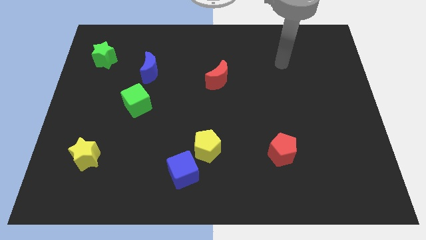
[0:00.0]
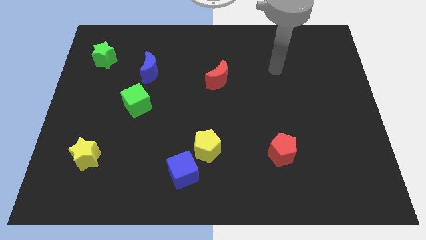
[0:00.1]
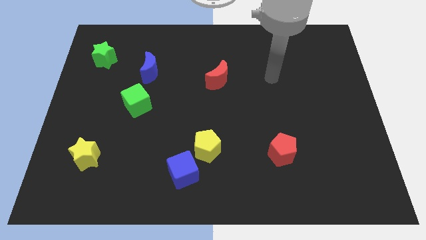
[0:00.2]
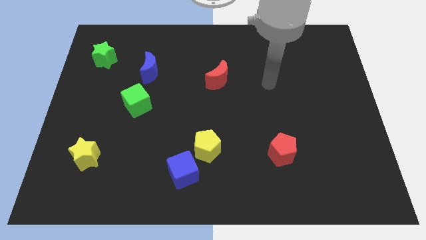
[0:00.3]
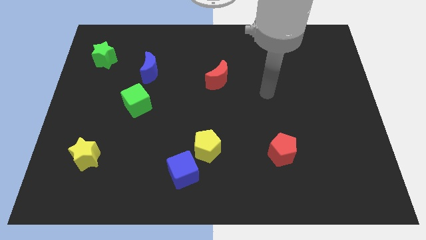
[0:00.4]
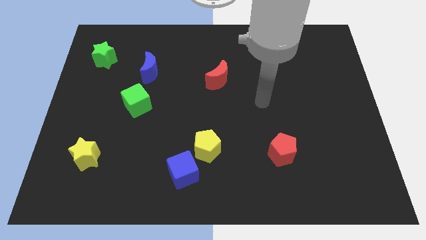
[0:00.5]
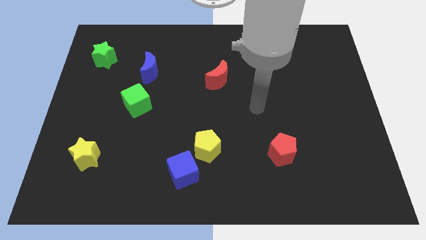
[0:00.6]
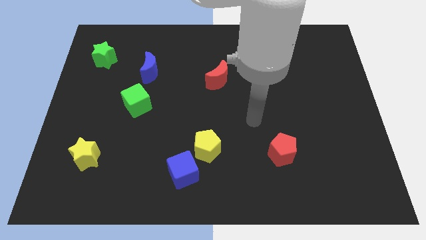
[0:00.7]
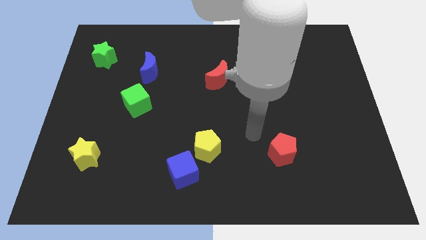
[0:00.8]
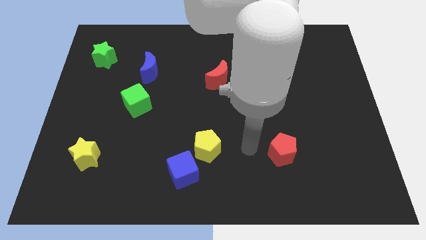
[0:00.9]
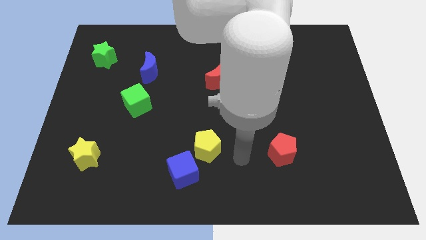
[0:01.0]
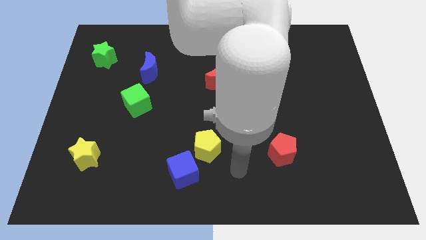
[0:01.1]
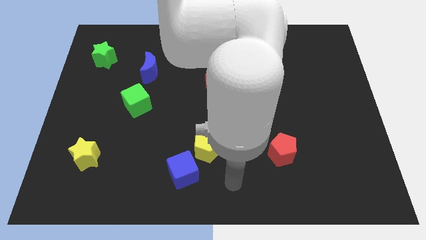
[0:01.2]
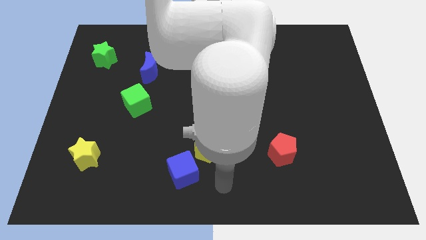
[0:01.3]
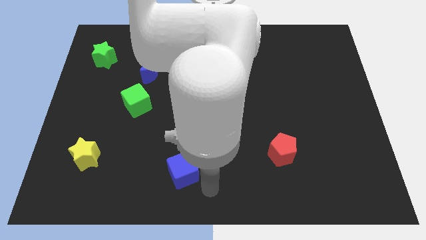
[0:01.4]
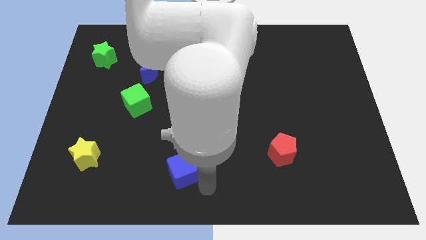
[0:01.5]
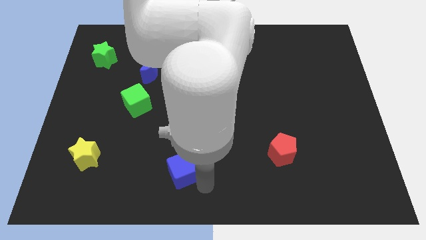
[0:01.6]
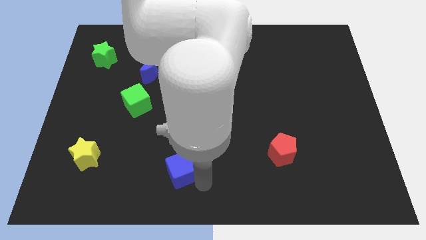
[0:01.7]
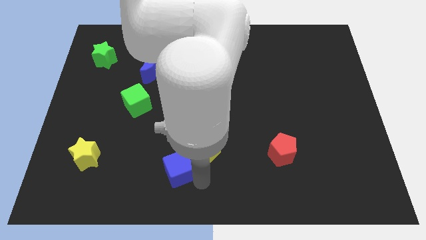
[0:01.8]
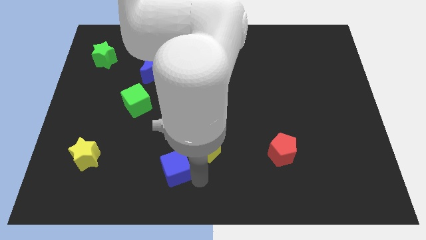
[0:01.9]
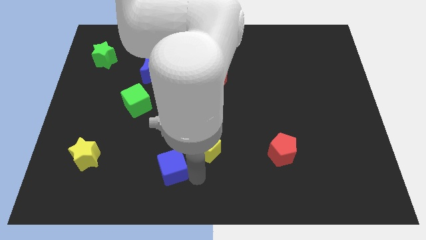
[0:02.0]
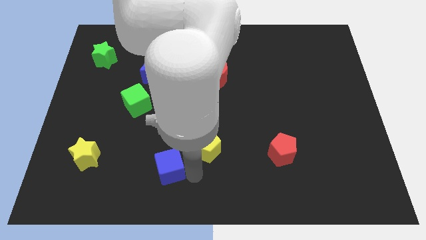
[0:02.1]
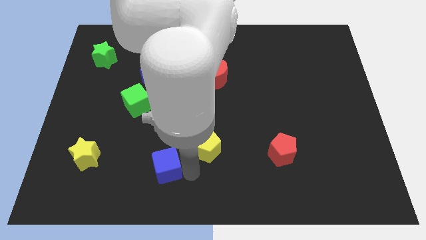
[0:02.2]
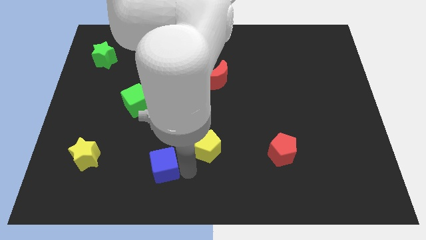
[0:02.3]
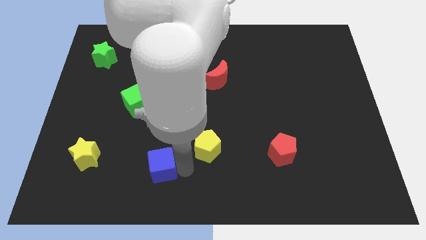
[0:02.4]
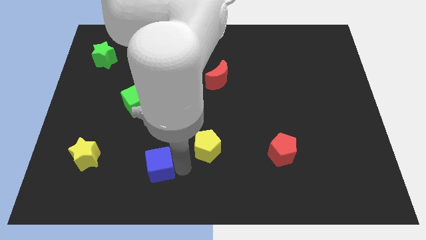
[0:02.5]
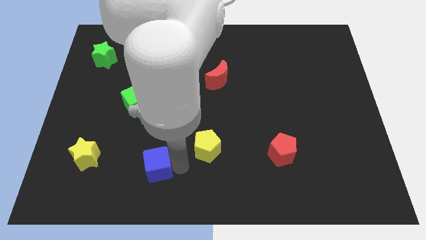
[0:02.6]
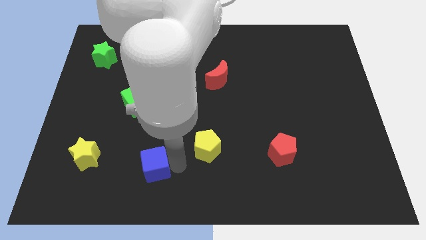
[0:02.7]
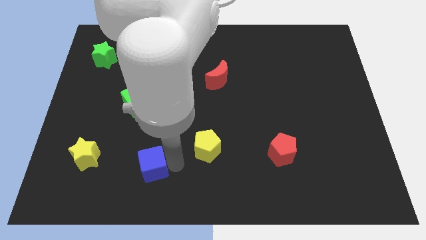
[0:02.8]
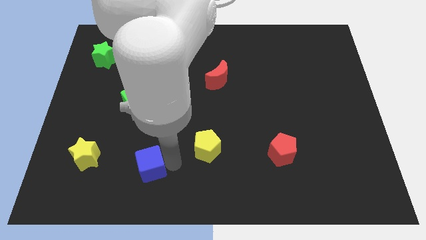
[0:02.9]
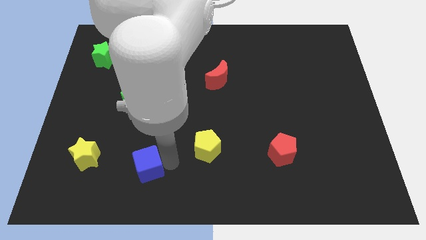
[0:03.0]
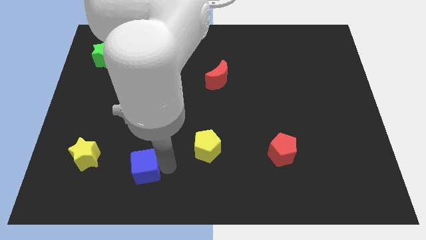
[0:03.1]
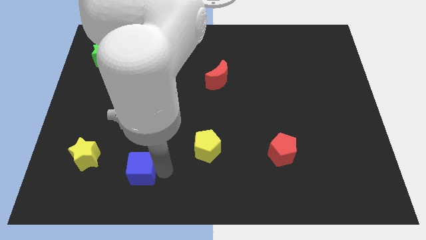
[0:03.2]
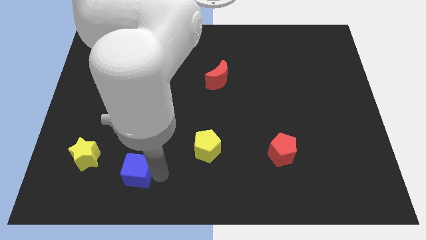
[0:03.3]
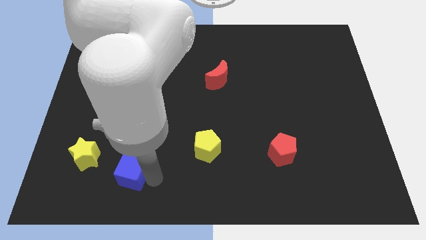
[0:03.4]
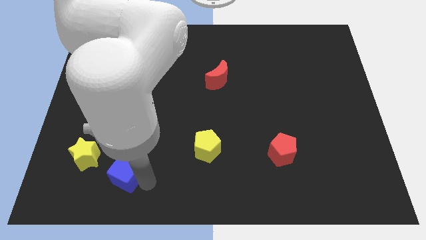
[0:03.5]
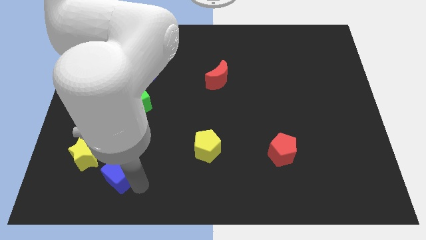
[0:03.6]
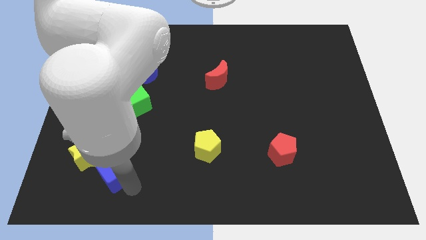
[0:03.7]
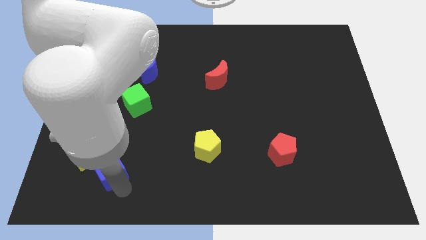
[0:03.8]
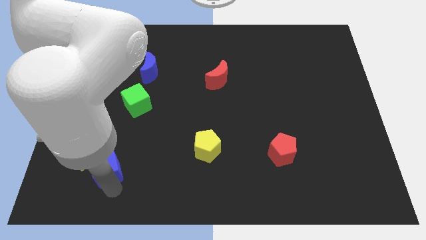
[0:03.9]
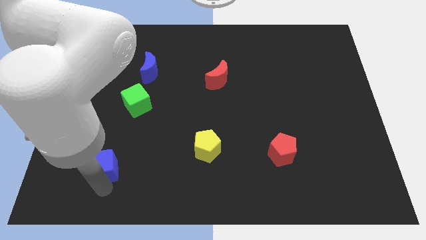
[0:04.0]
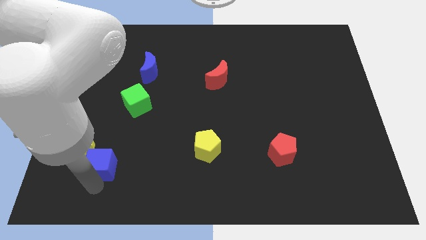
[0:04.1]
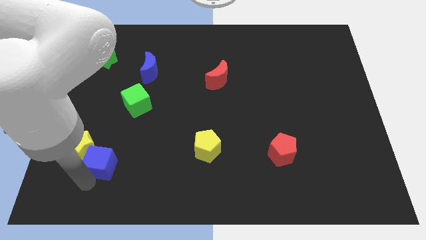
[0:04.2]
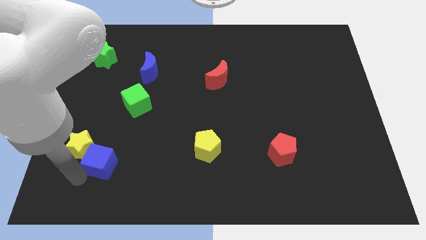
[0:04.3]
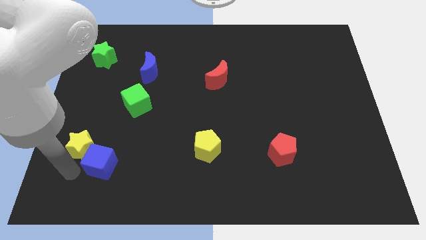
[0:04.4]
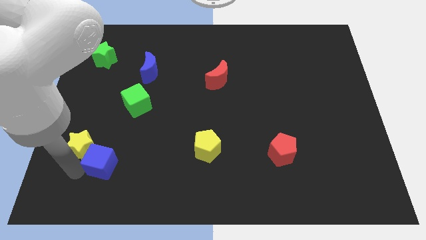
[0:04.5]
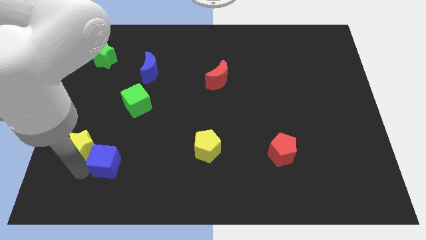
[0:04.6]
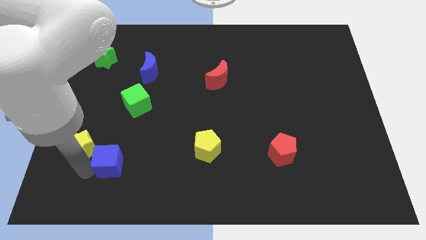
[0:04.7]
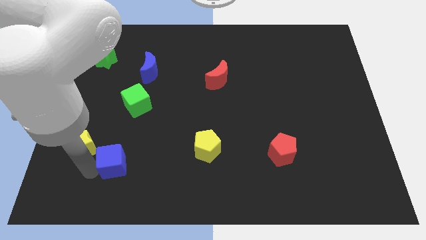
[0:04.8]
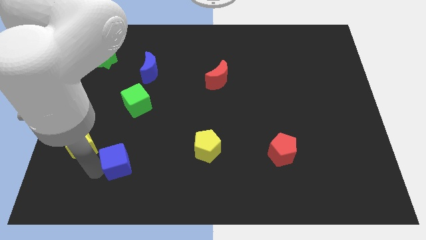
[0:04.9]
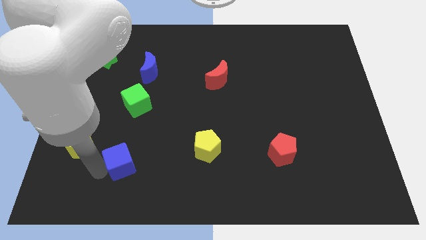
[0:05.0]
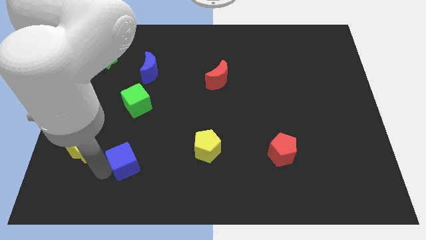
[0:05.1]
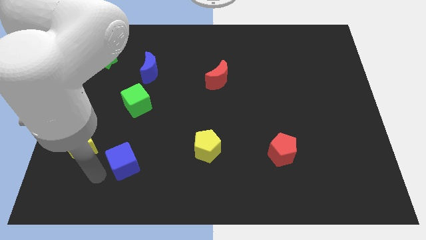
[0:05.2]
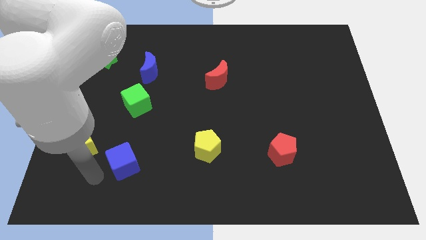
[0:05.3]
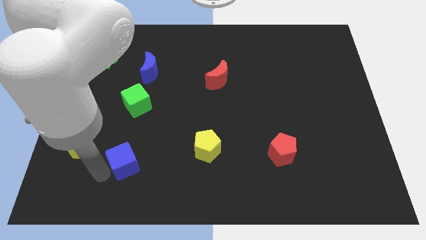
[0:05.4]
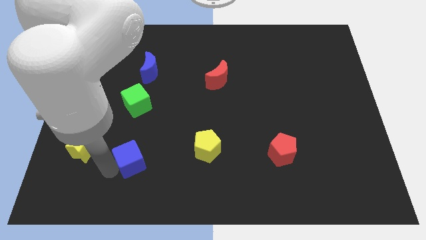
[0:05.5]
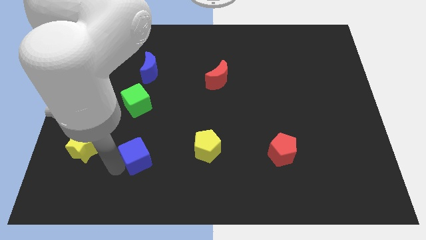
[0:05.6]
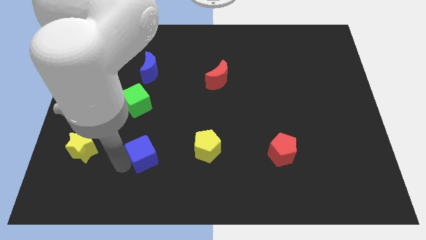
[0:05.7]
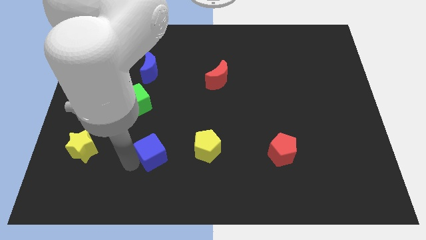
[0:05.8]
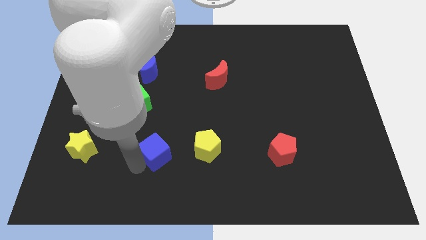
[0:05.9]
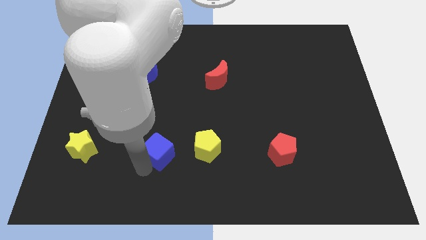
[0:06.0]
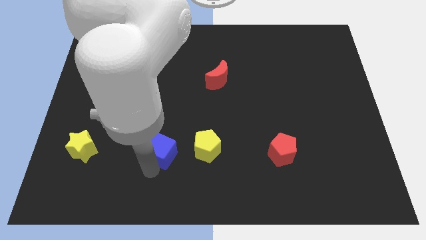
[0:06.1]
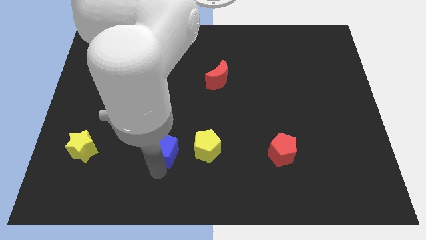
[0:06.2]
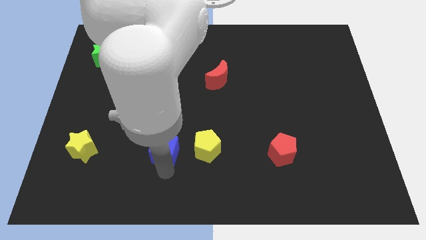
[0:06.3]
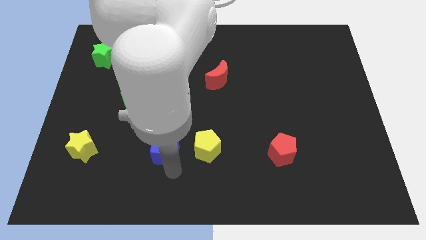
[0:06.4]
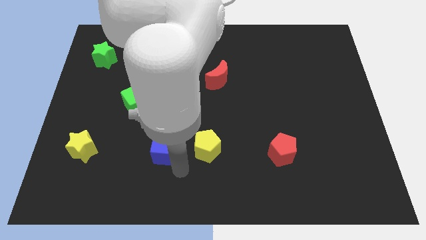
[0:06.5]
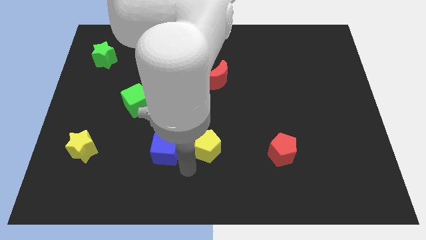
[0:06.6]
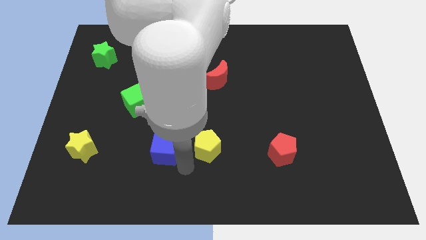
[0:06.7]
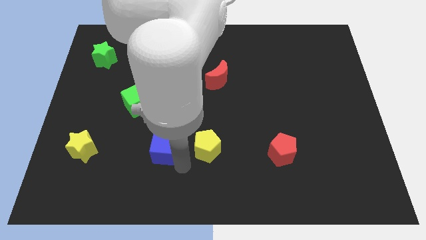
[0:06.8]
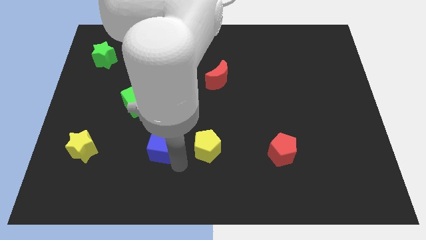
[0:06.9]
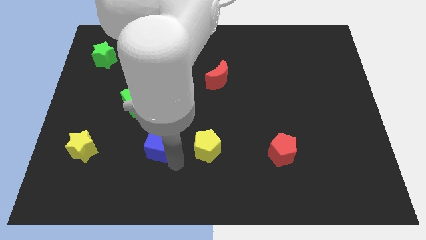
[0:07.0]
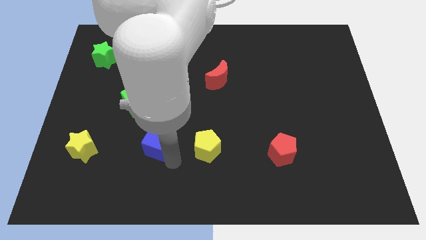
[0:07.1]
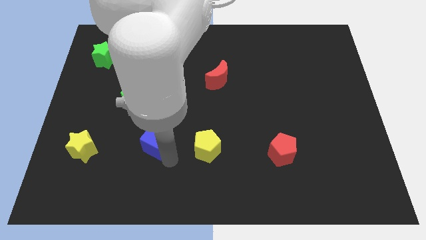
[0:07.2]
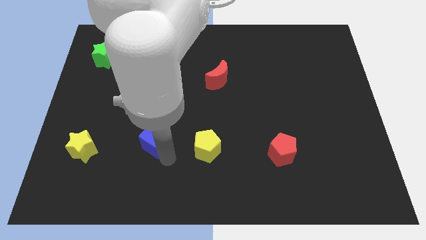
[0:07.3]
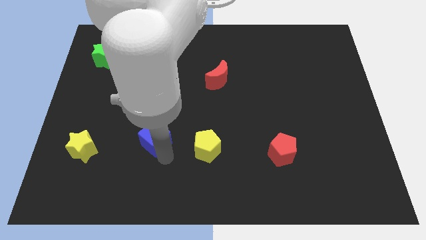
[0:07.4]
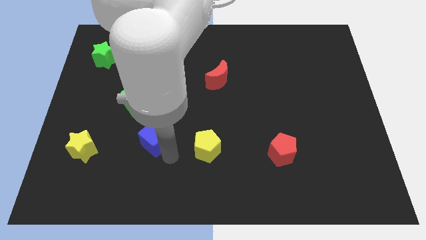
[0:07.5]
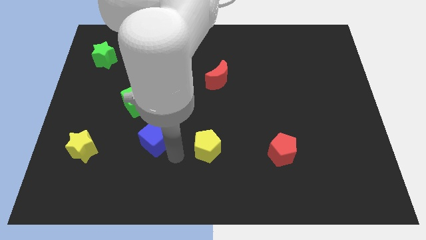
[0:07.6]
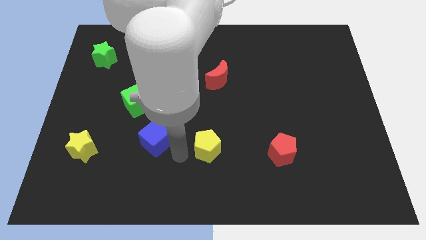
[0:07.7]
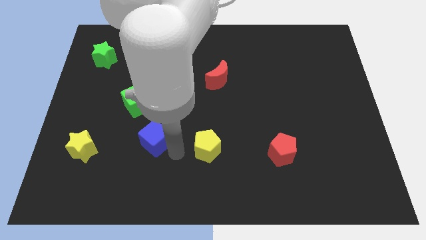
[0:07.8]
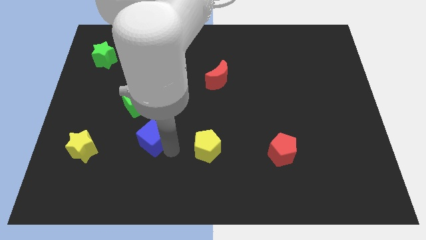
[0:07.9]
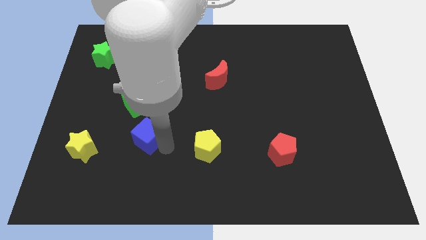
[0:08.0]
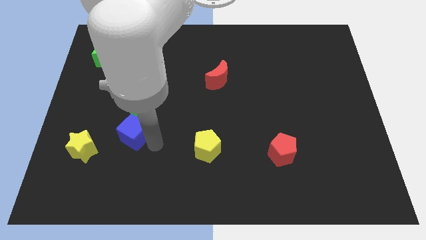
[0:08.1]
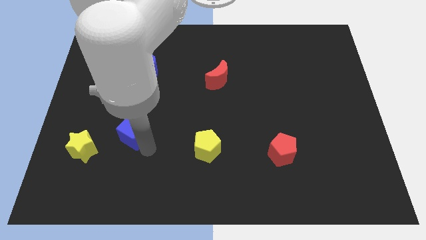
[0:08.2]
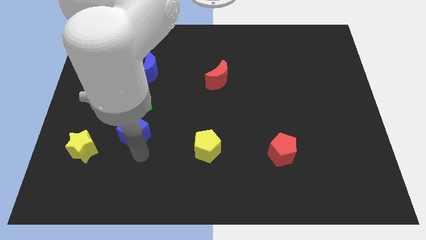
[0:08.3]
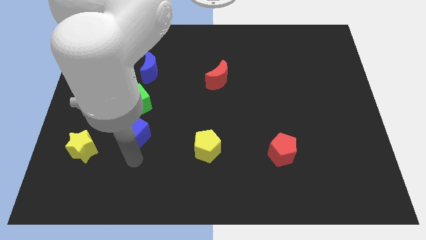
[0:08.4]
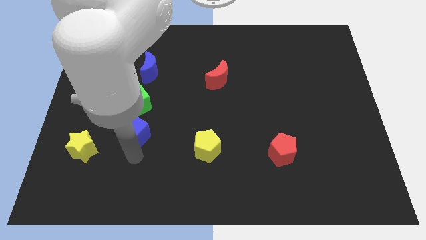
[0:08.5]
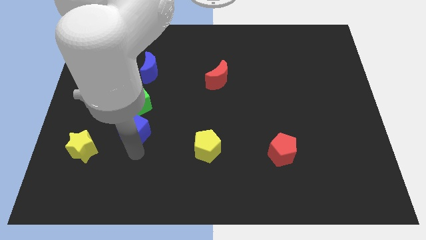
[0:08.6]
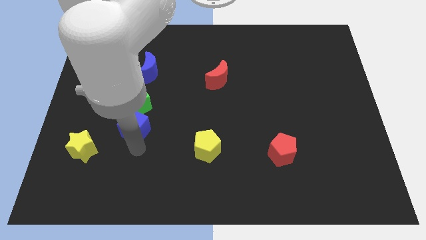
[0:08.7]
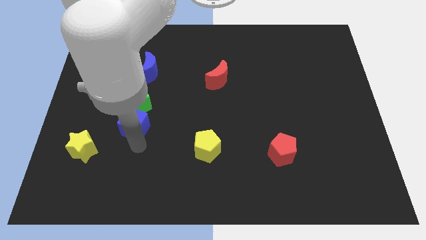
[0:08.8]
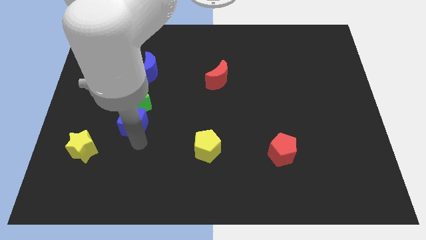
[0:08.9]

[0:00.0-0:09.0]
slide the blue cube close to the green cube
